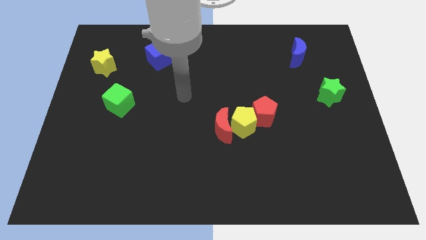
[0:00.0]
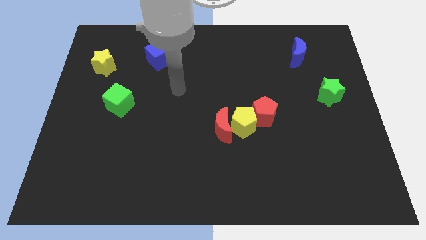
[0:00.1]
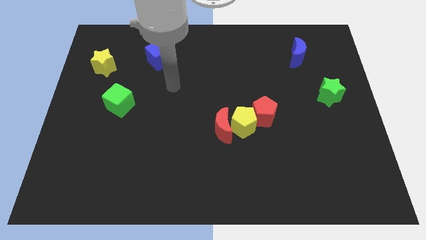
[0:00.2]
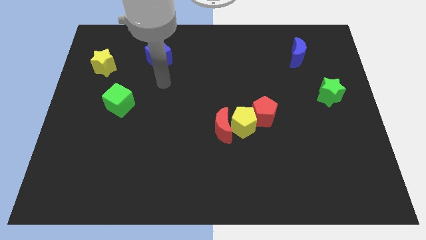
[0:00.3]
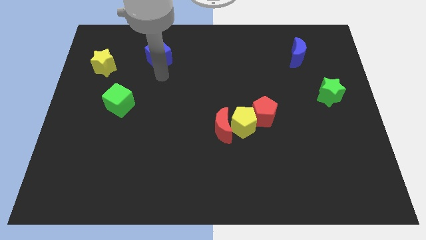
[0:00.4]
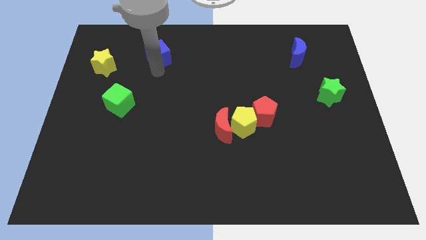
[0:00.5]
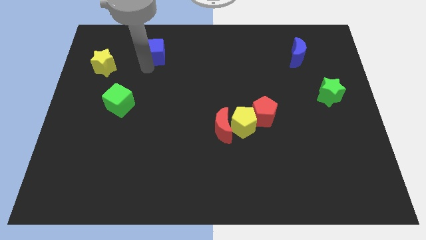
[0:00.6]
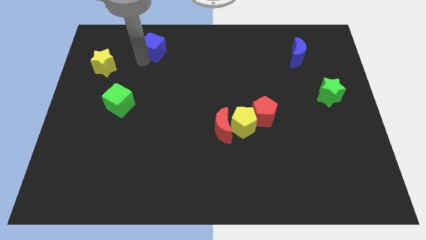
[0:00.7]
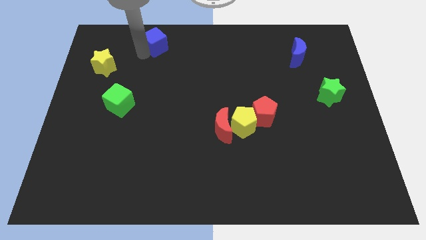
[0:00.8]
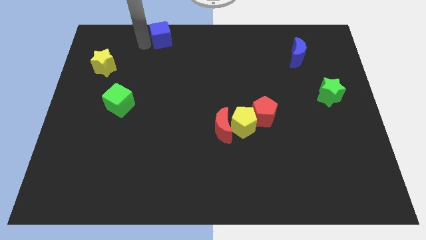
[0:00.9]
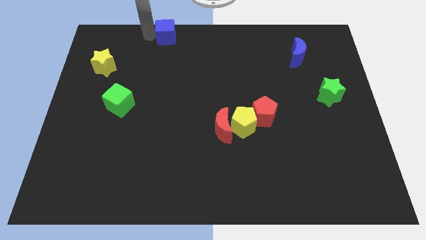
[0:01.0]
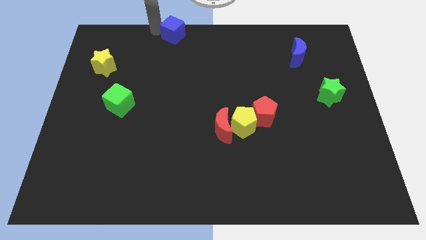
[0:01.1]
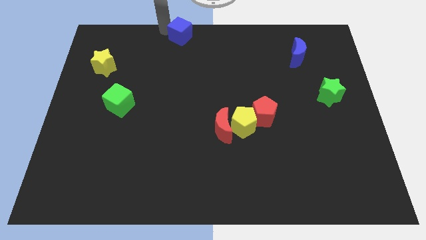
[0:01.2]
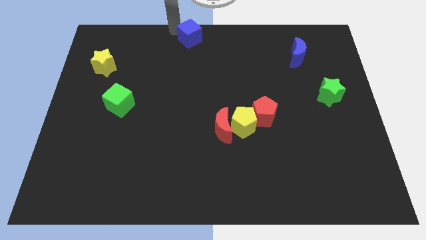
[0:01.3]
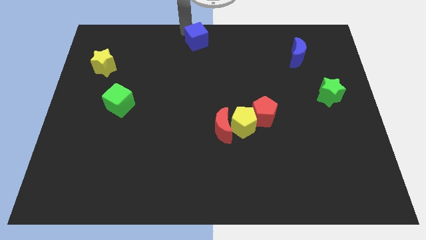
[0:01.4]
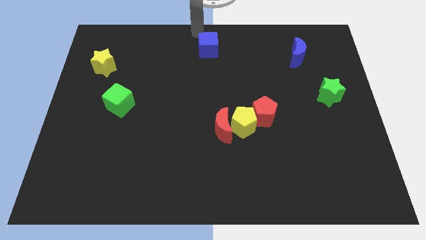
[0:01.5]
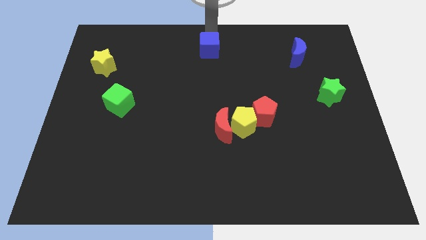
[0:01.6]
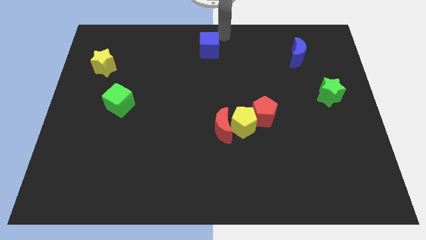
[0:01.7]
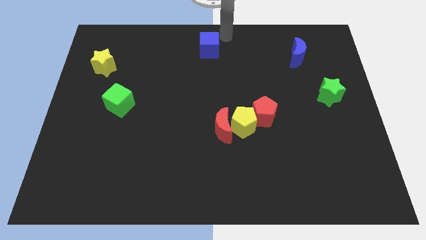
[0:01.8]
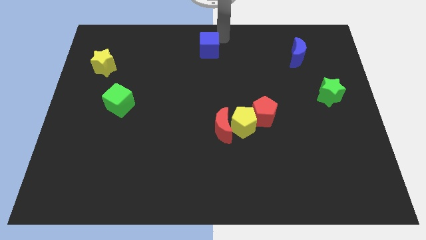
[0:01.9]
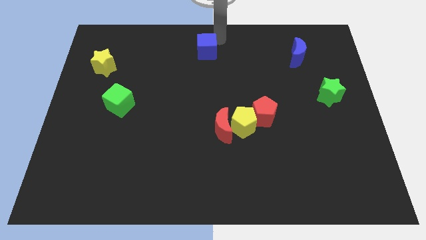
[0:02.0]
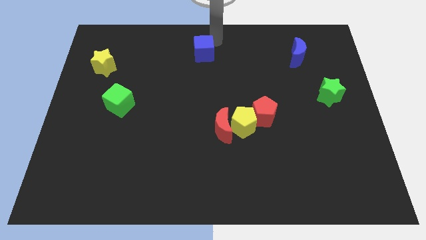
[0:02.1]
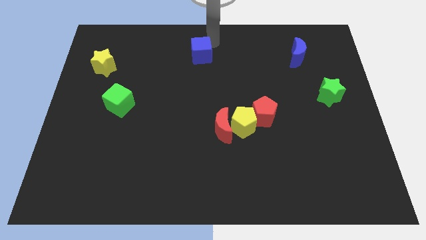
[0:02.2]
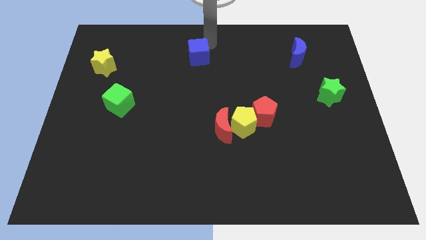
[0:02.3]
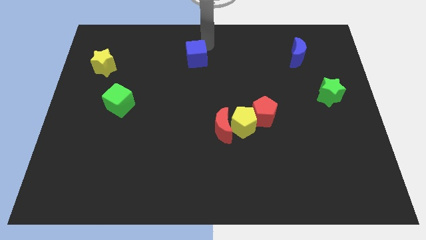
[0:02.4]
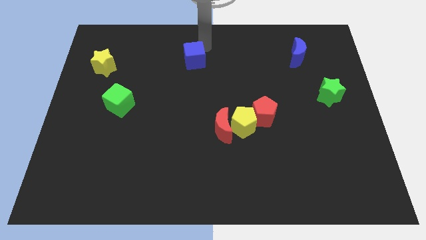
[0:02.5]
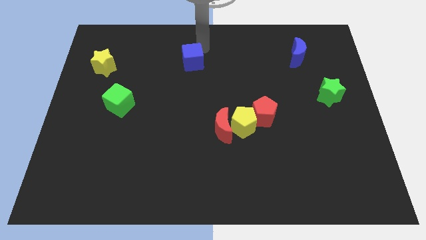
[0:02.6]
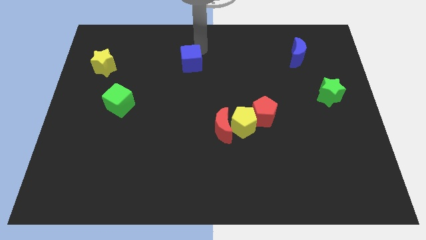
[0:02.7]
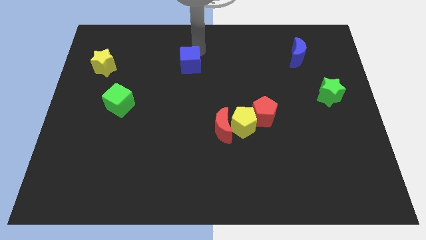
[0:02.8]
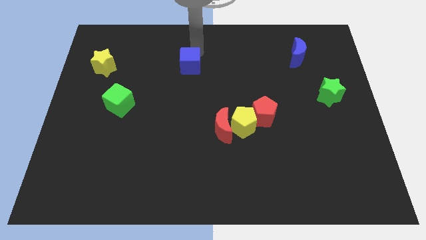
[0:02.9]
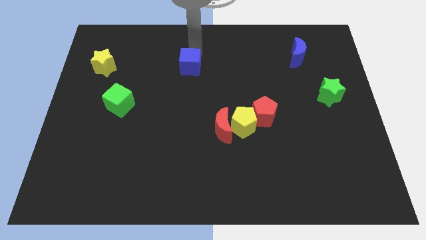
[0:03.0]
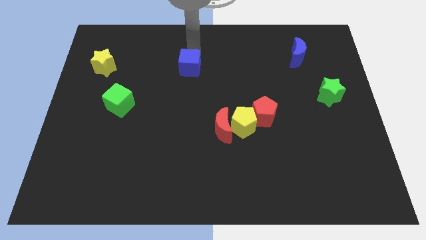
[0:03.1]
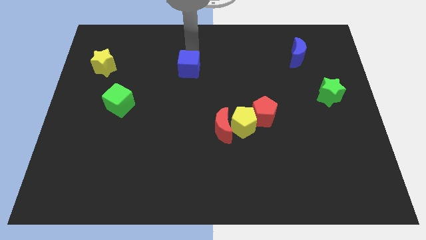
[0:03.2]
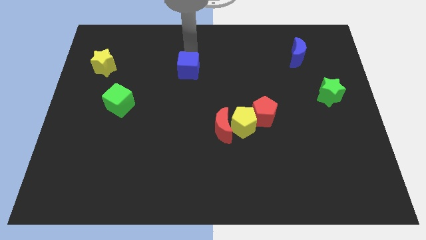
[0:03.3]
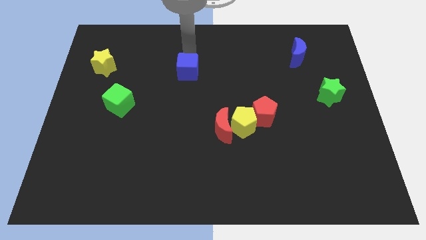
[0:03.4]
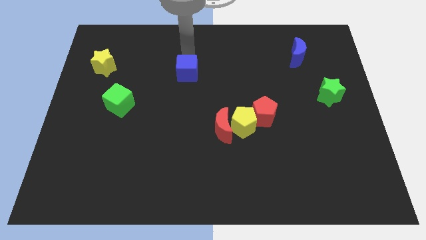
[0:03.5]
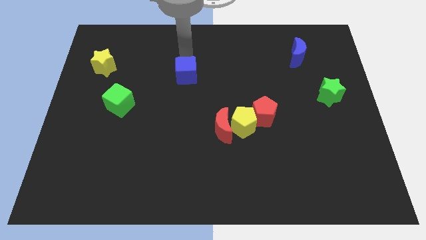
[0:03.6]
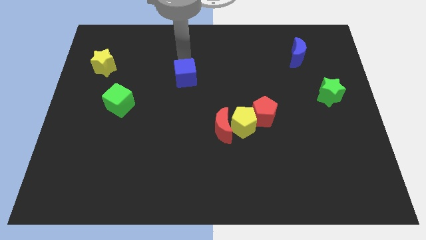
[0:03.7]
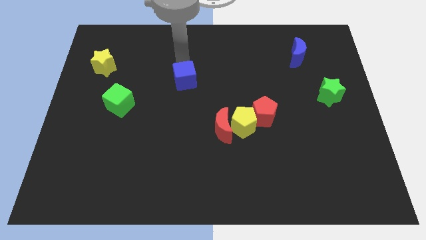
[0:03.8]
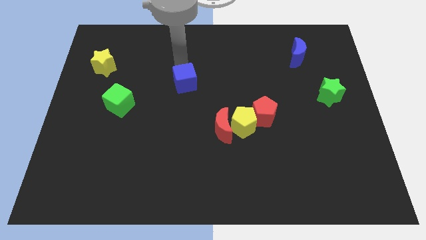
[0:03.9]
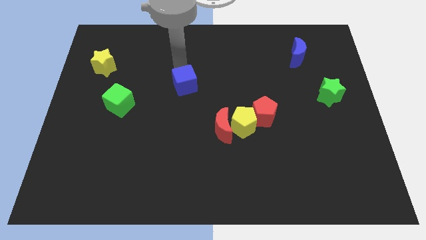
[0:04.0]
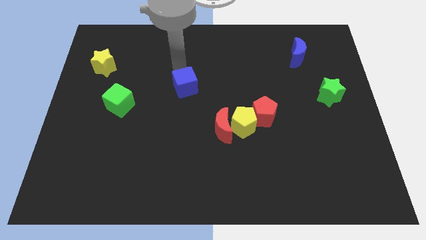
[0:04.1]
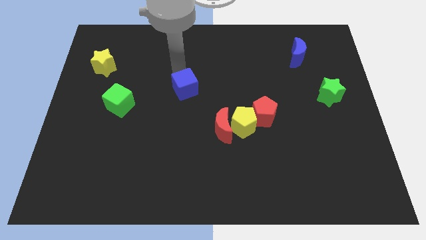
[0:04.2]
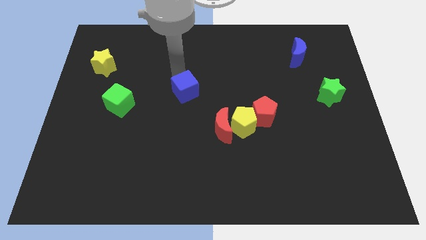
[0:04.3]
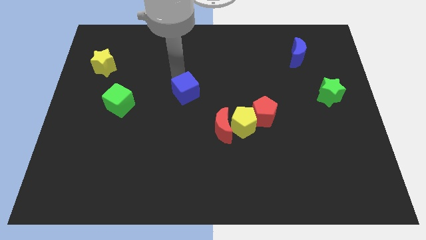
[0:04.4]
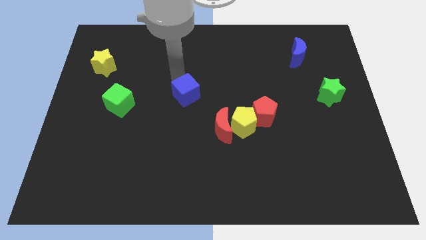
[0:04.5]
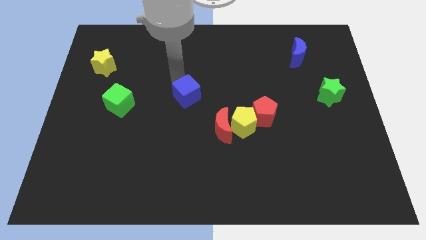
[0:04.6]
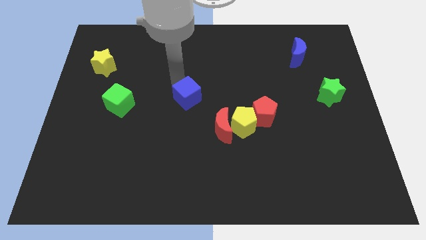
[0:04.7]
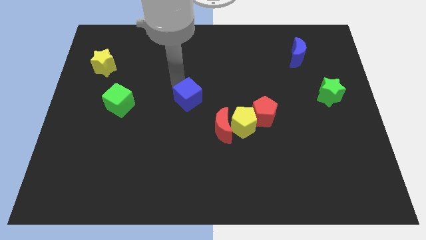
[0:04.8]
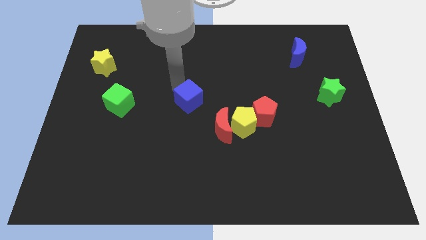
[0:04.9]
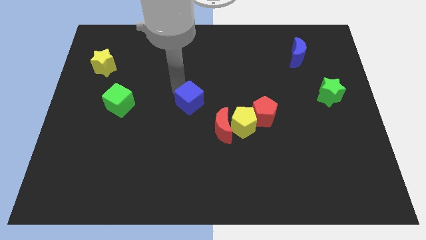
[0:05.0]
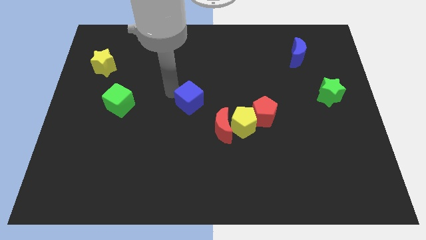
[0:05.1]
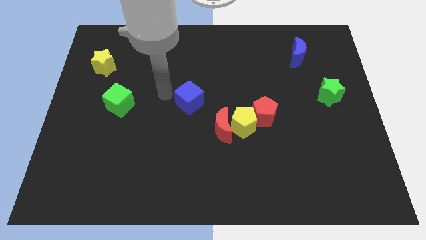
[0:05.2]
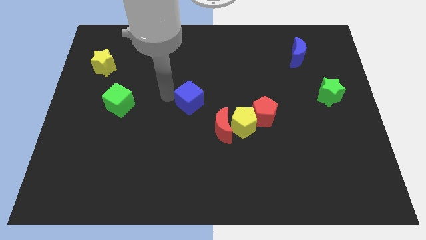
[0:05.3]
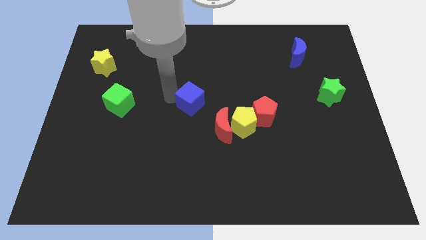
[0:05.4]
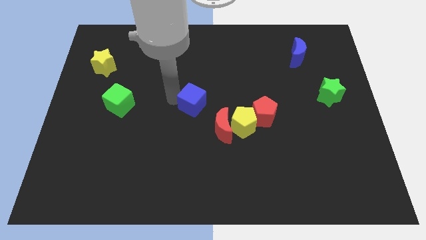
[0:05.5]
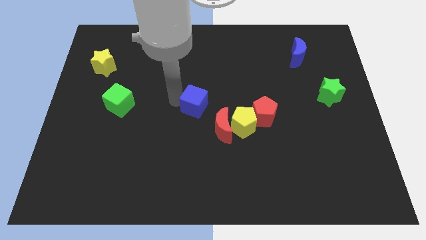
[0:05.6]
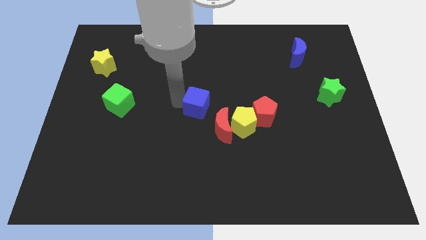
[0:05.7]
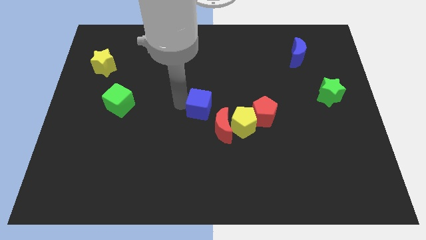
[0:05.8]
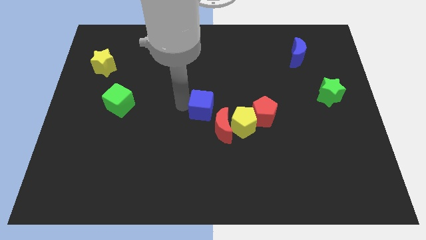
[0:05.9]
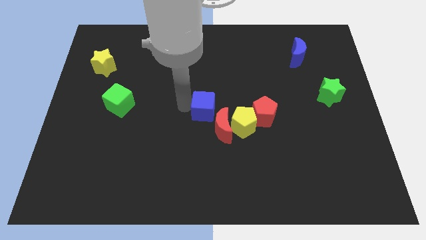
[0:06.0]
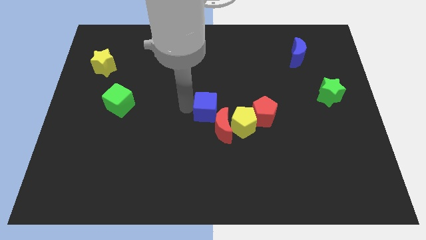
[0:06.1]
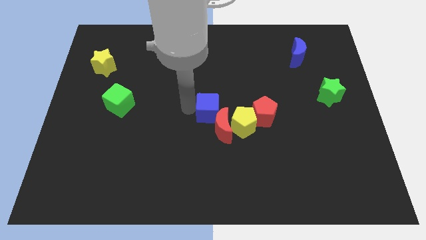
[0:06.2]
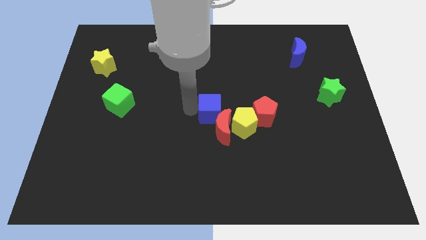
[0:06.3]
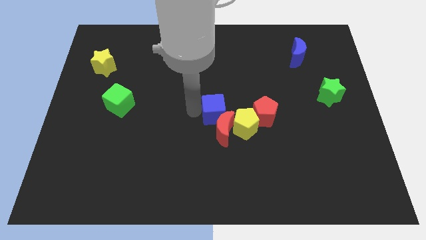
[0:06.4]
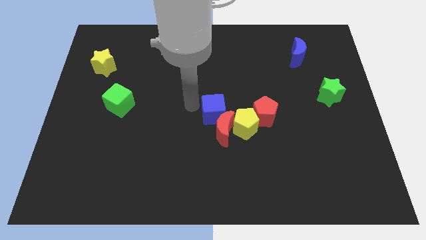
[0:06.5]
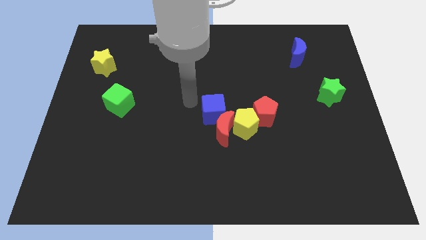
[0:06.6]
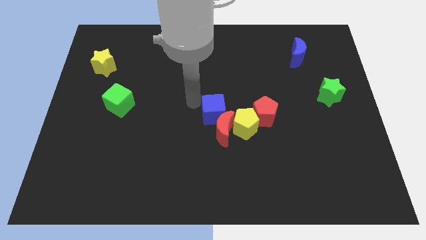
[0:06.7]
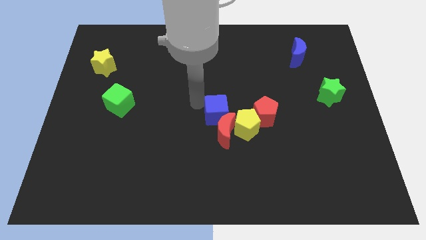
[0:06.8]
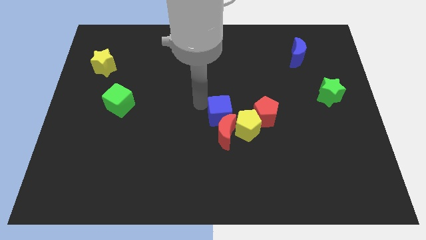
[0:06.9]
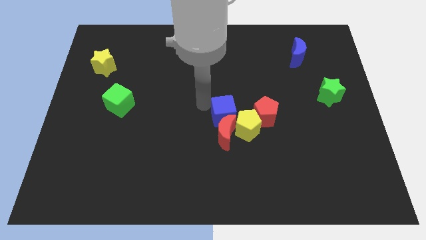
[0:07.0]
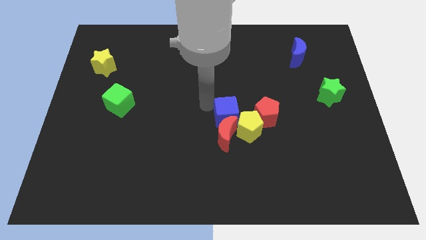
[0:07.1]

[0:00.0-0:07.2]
slide the blue cube to the yellow pentagon

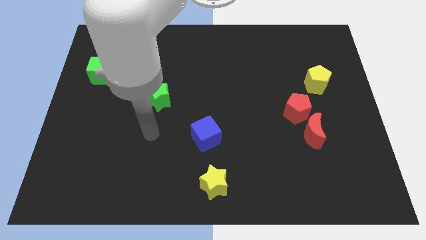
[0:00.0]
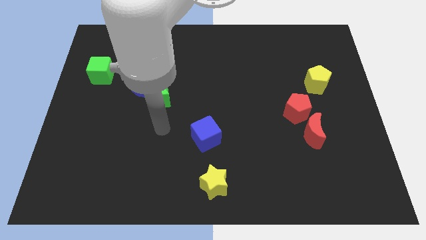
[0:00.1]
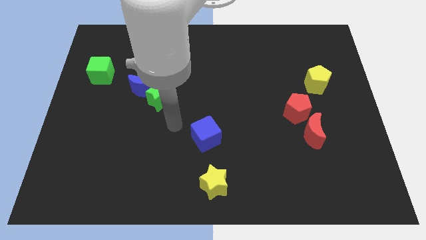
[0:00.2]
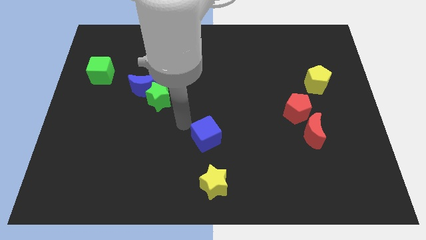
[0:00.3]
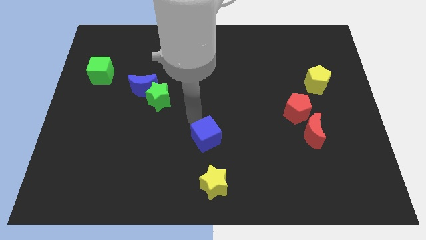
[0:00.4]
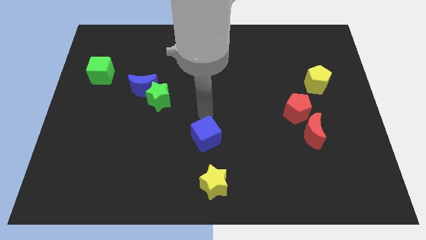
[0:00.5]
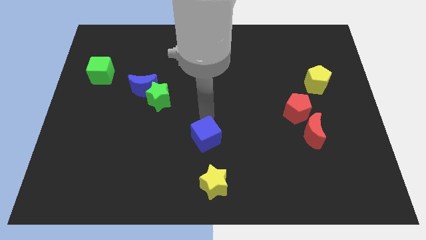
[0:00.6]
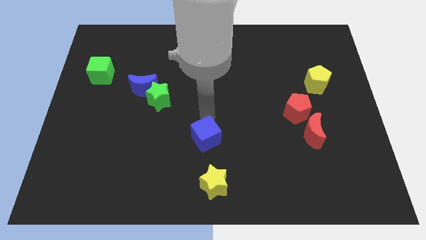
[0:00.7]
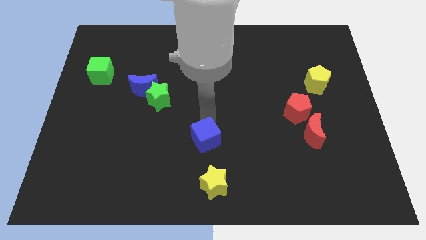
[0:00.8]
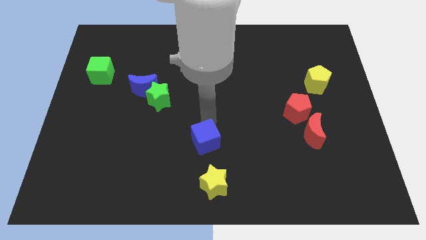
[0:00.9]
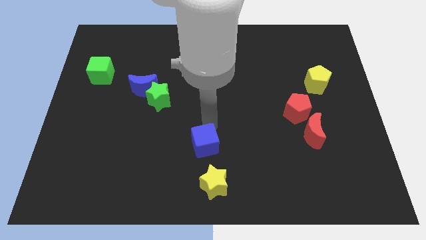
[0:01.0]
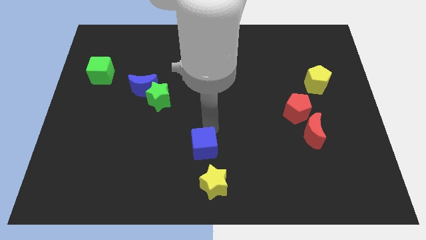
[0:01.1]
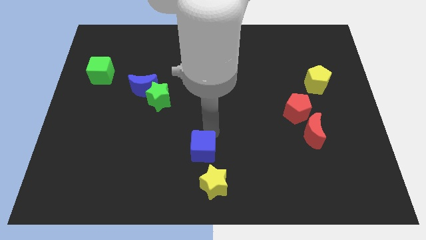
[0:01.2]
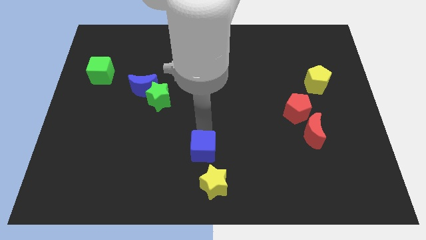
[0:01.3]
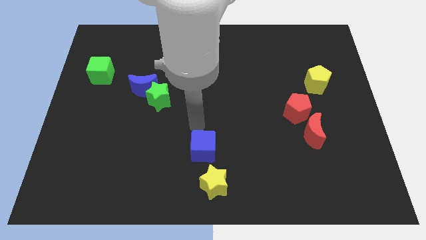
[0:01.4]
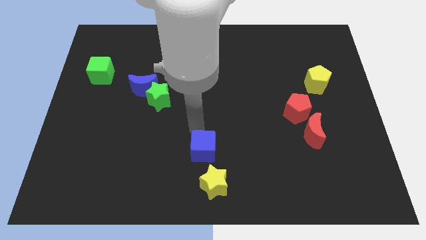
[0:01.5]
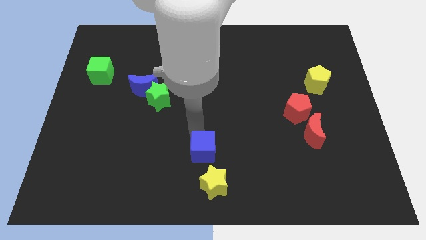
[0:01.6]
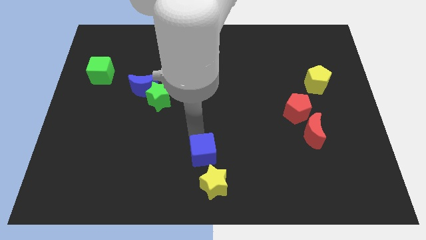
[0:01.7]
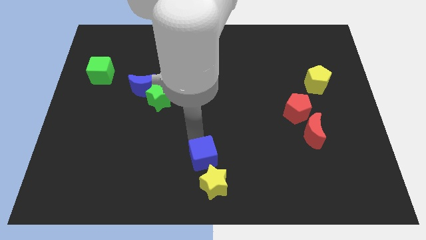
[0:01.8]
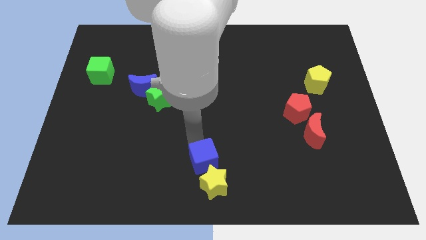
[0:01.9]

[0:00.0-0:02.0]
slide the blue cube close to the yellow star
